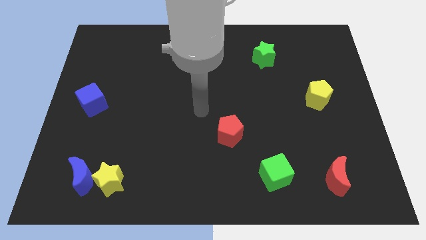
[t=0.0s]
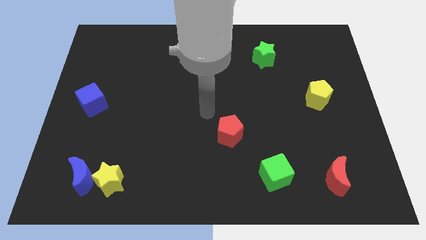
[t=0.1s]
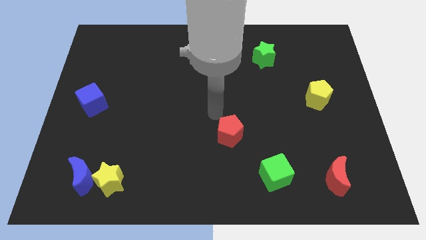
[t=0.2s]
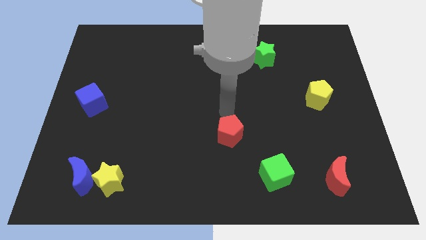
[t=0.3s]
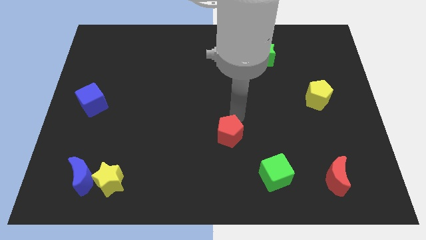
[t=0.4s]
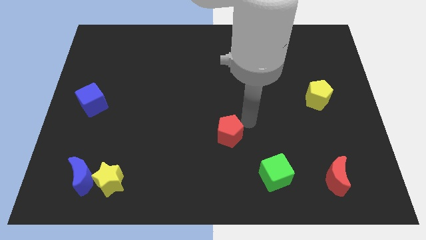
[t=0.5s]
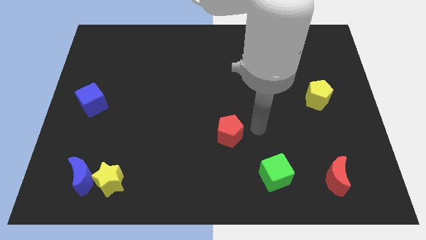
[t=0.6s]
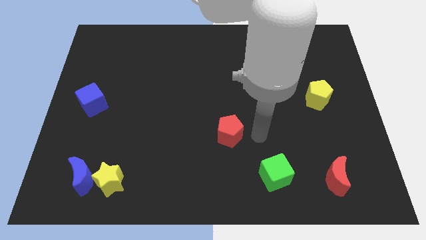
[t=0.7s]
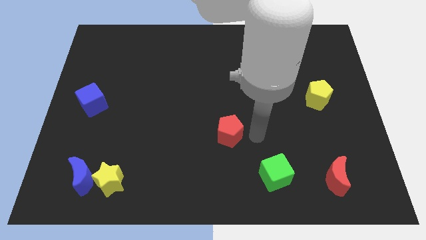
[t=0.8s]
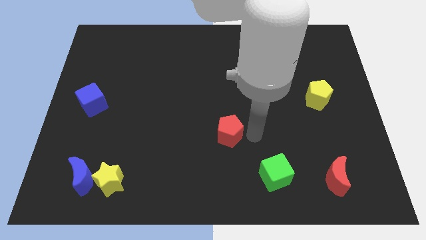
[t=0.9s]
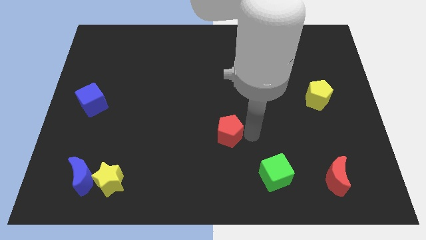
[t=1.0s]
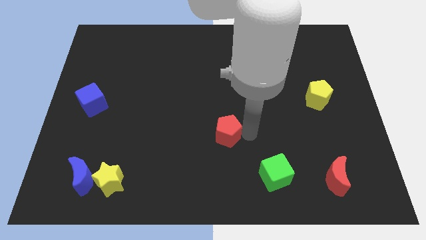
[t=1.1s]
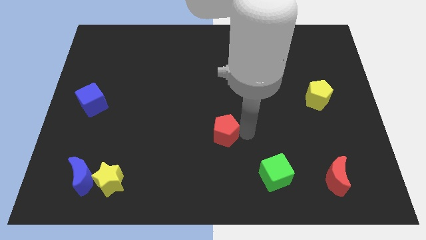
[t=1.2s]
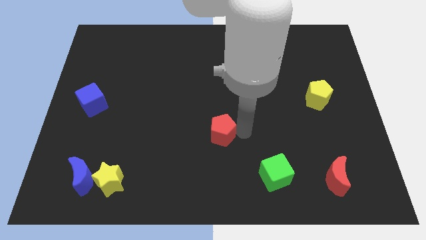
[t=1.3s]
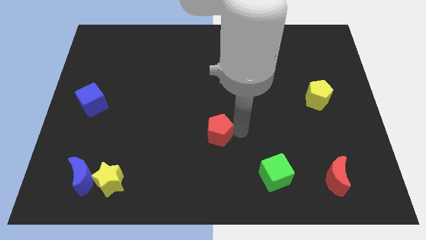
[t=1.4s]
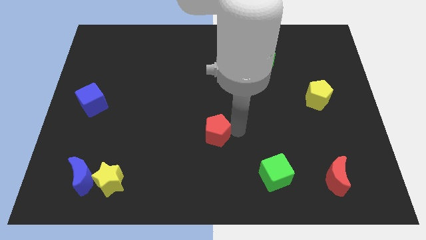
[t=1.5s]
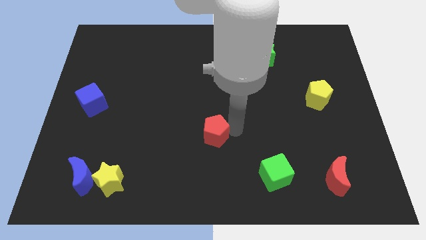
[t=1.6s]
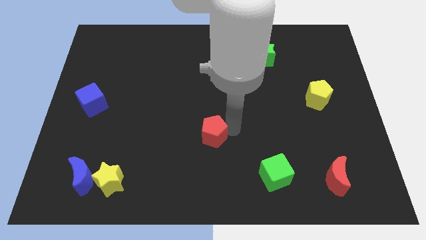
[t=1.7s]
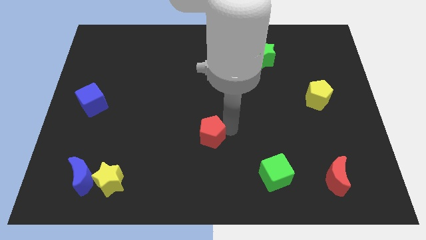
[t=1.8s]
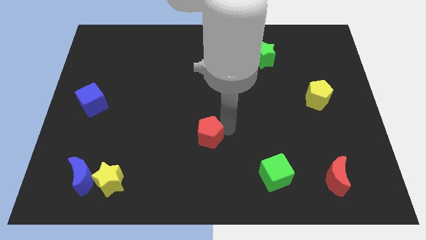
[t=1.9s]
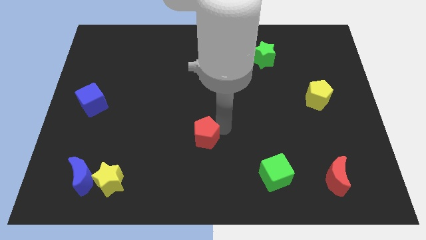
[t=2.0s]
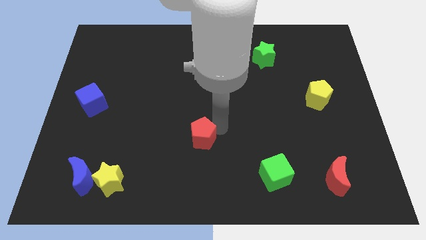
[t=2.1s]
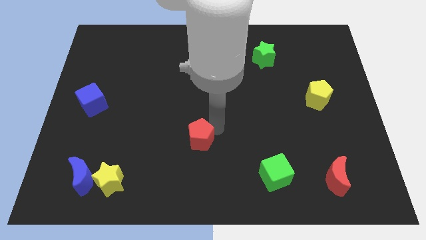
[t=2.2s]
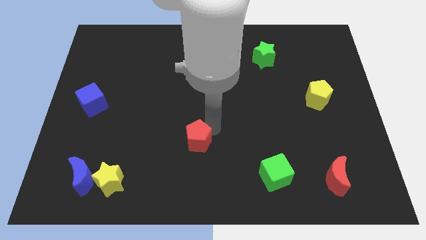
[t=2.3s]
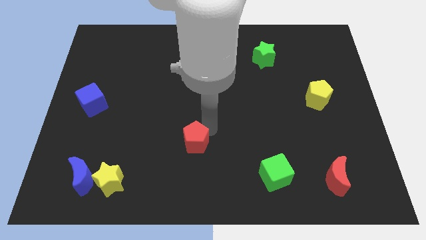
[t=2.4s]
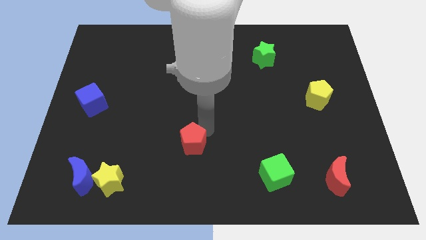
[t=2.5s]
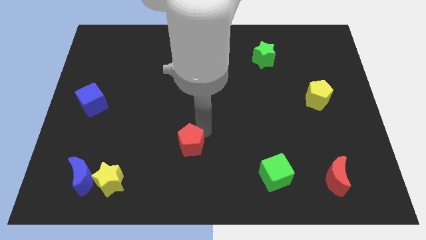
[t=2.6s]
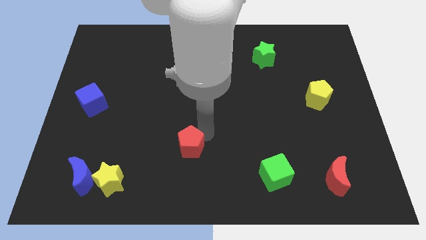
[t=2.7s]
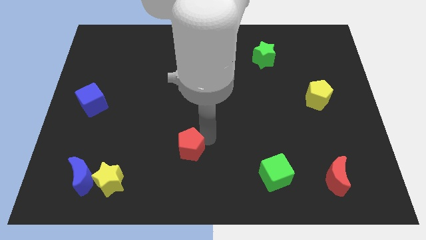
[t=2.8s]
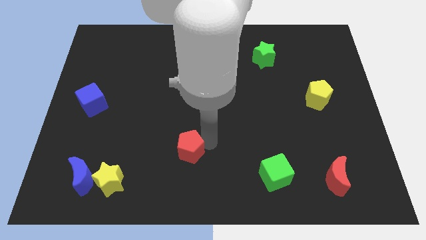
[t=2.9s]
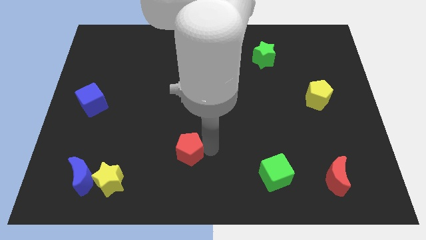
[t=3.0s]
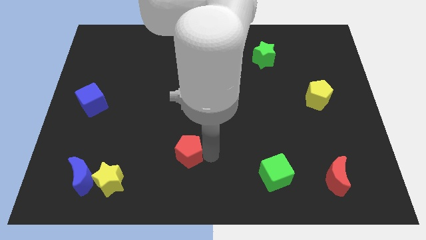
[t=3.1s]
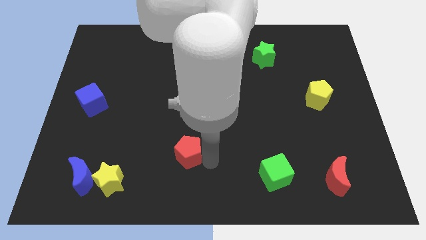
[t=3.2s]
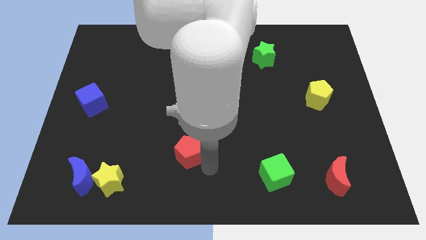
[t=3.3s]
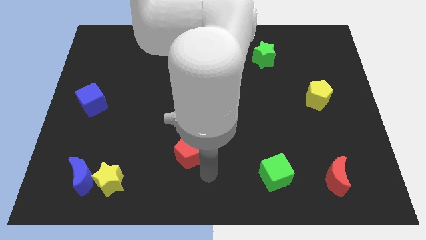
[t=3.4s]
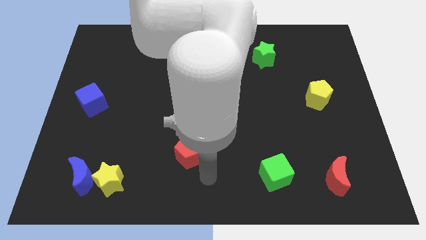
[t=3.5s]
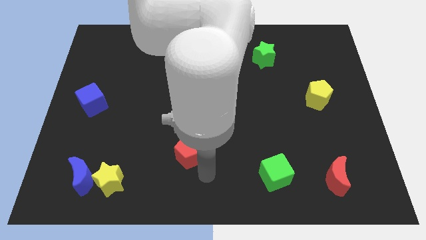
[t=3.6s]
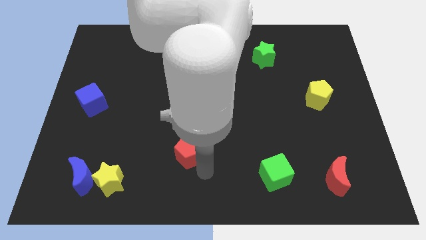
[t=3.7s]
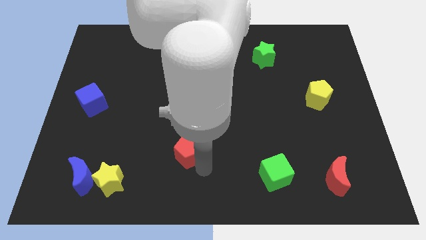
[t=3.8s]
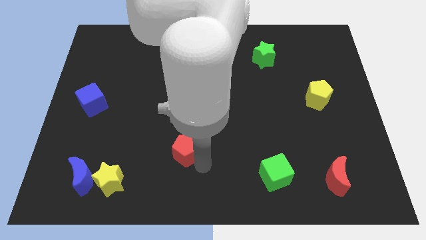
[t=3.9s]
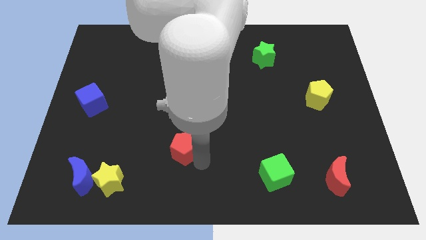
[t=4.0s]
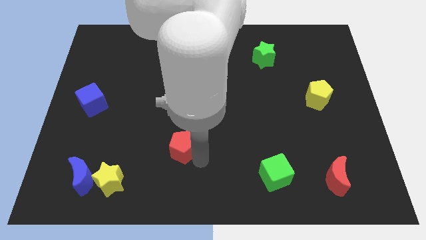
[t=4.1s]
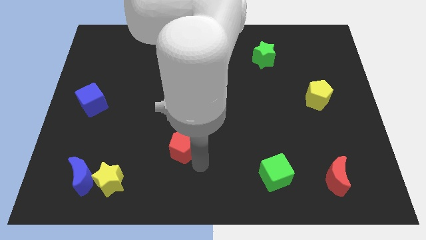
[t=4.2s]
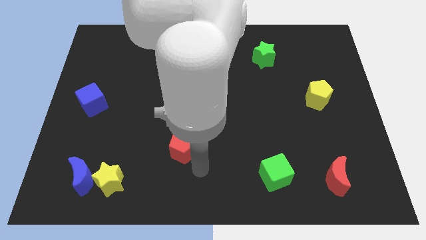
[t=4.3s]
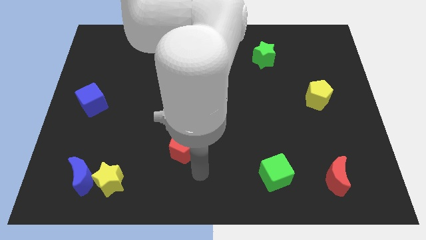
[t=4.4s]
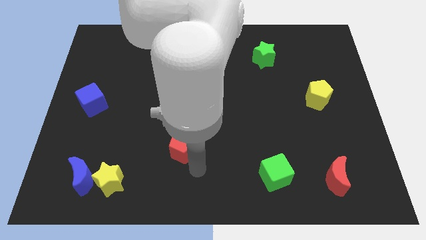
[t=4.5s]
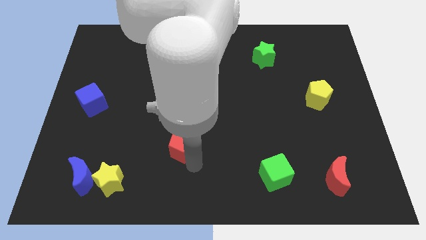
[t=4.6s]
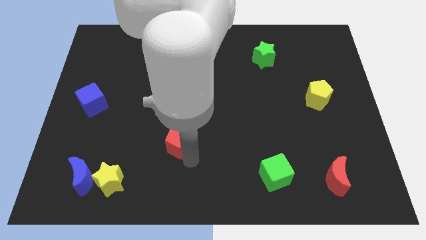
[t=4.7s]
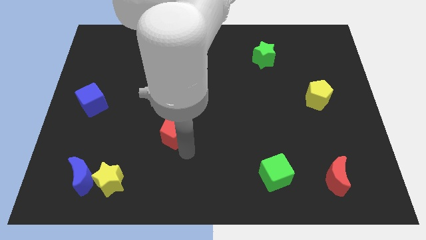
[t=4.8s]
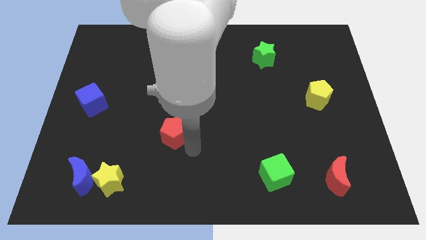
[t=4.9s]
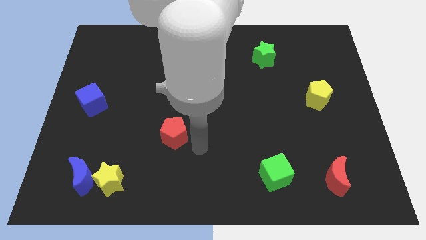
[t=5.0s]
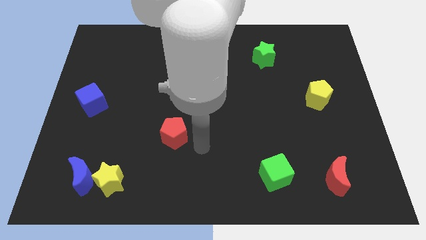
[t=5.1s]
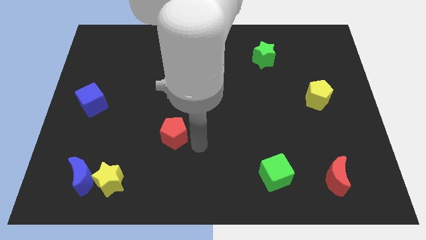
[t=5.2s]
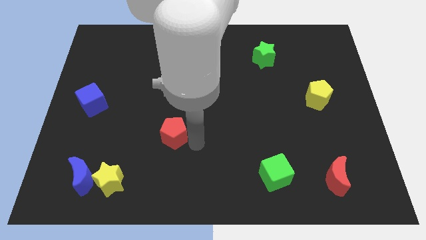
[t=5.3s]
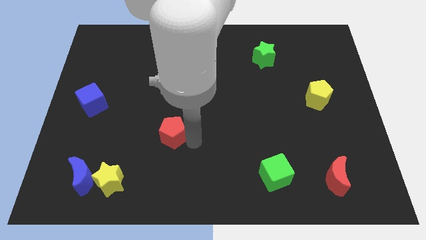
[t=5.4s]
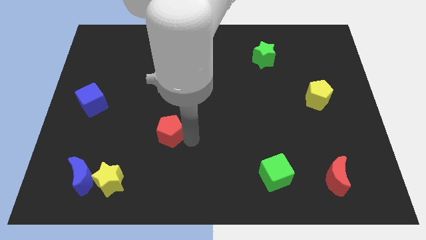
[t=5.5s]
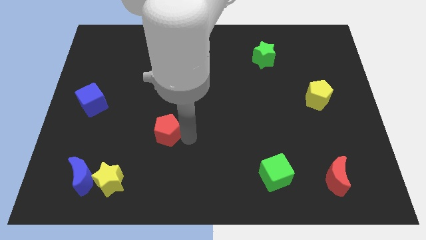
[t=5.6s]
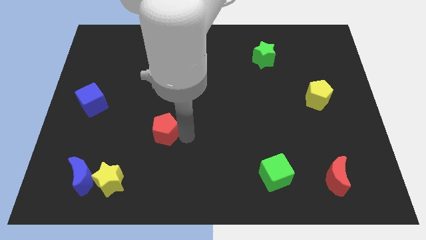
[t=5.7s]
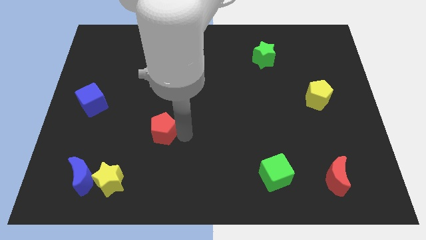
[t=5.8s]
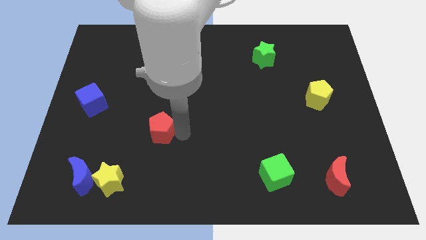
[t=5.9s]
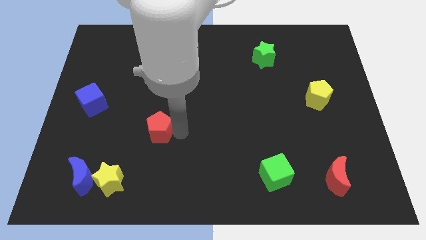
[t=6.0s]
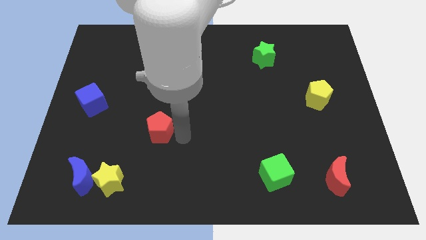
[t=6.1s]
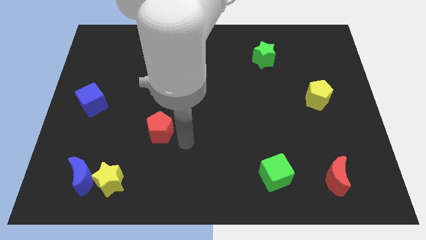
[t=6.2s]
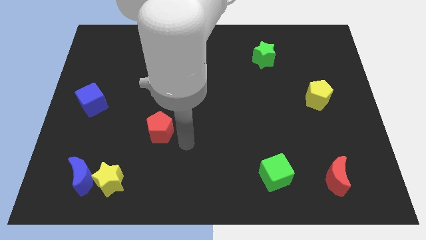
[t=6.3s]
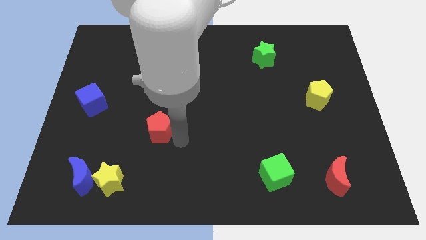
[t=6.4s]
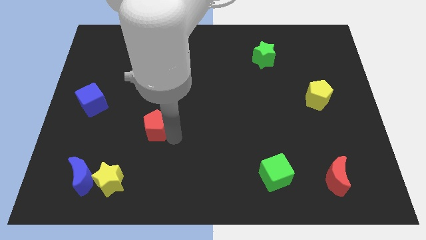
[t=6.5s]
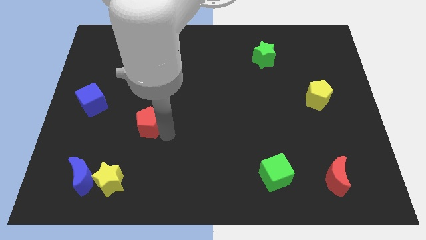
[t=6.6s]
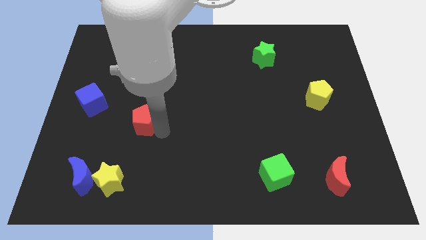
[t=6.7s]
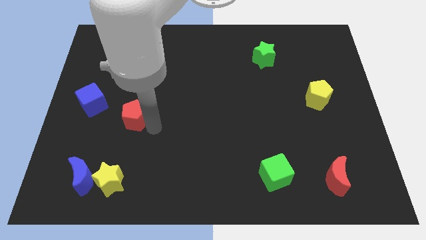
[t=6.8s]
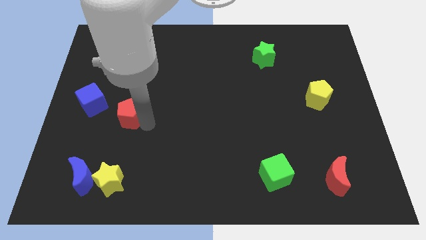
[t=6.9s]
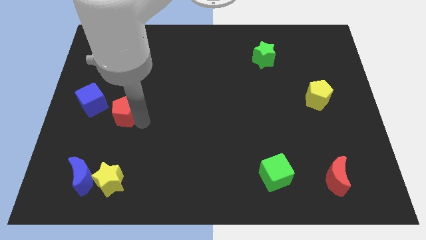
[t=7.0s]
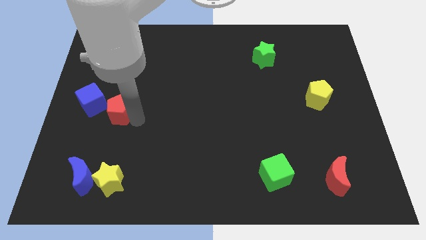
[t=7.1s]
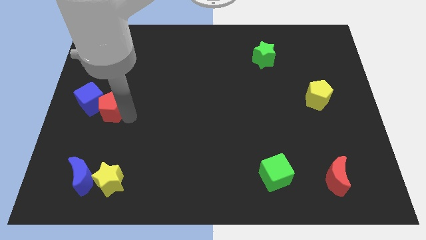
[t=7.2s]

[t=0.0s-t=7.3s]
slide the red pentagon next to the blue cube
